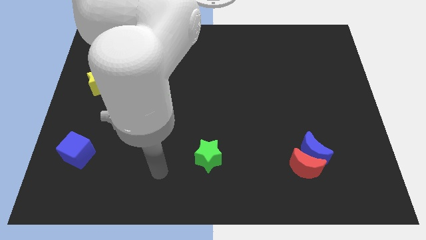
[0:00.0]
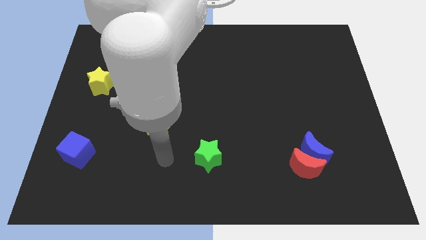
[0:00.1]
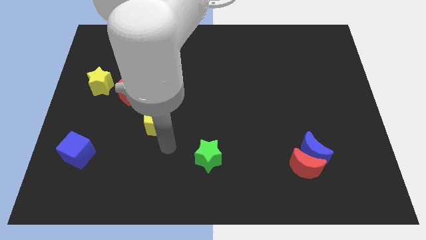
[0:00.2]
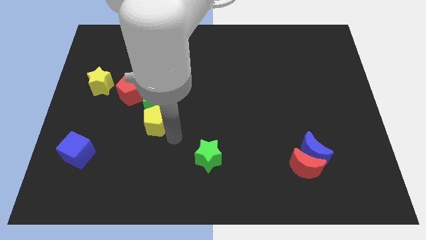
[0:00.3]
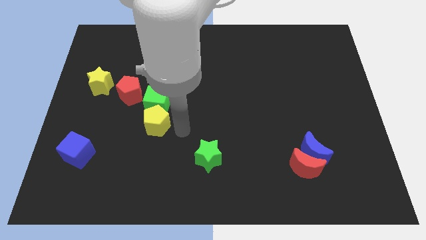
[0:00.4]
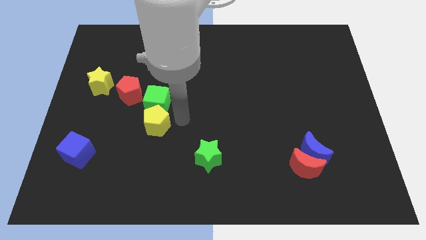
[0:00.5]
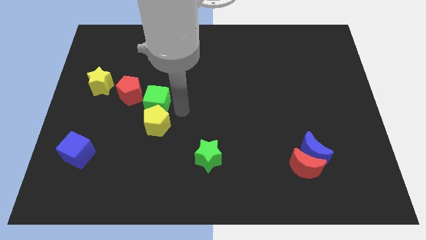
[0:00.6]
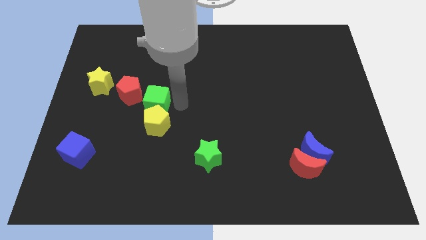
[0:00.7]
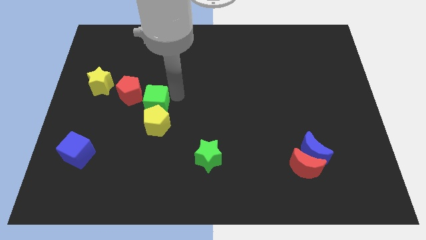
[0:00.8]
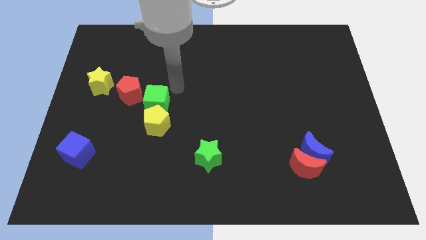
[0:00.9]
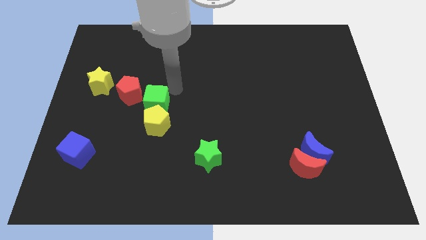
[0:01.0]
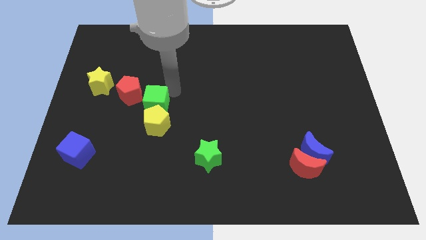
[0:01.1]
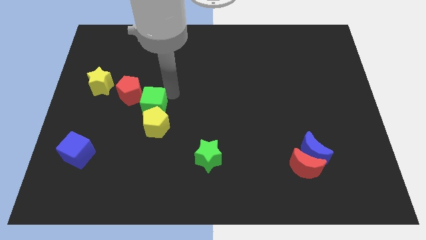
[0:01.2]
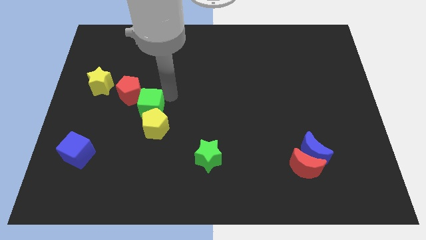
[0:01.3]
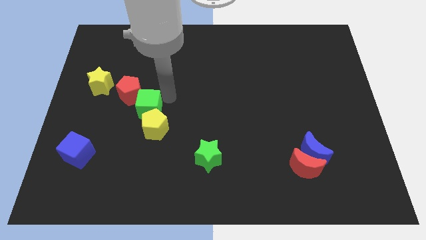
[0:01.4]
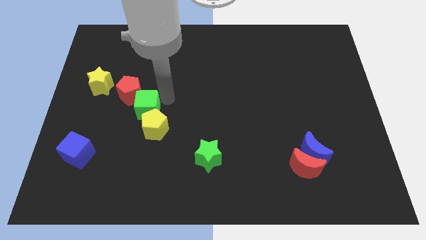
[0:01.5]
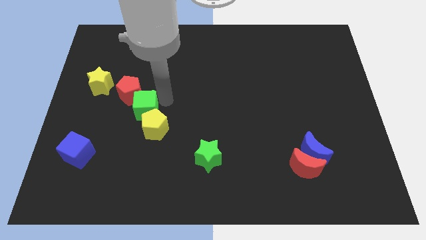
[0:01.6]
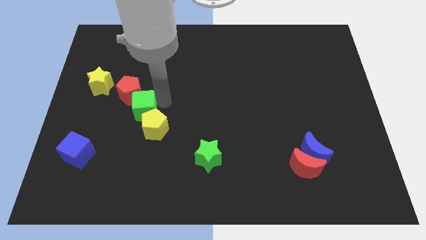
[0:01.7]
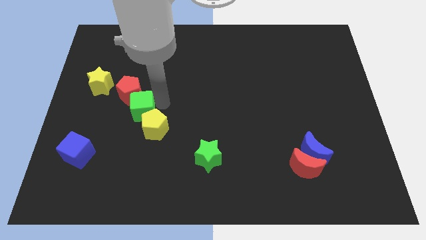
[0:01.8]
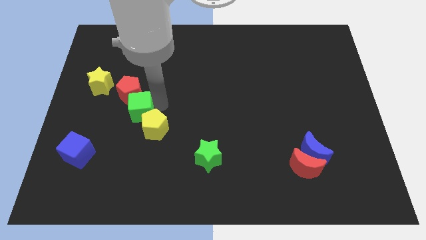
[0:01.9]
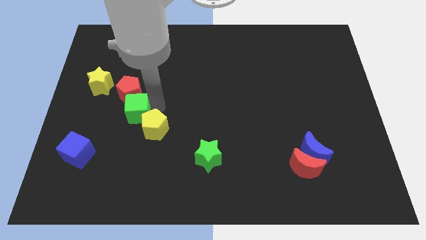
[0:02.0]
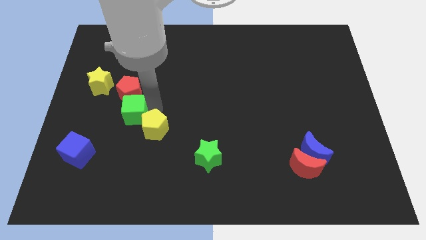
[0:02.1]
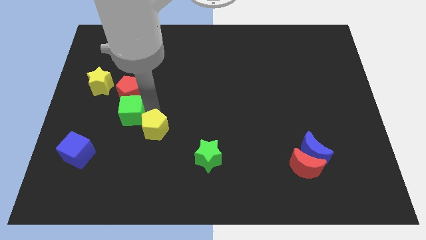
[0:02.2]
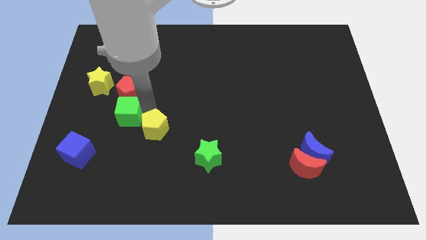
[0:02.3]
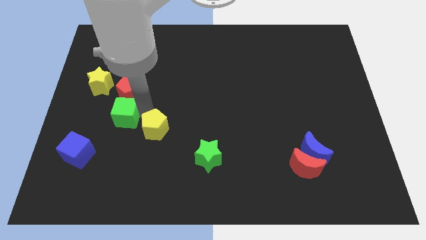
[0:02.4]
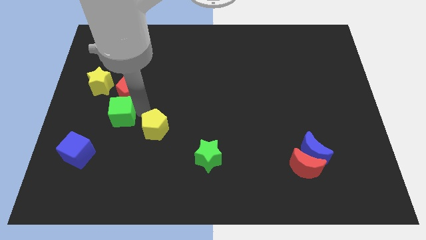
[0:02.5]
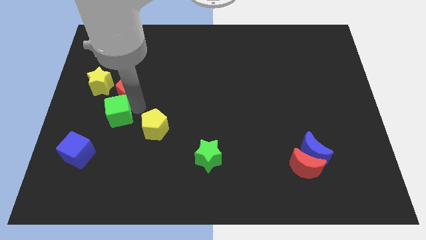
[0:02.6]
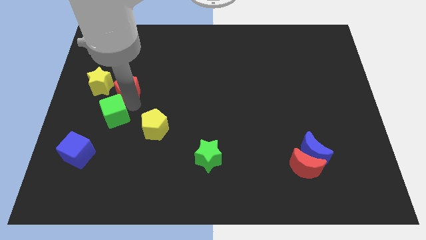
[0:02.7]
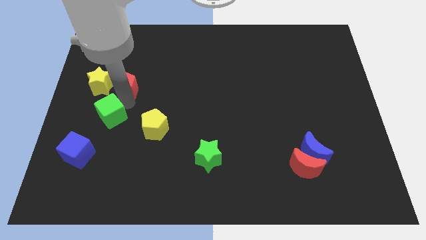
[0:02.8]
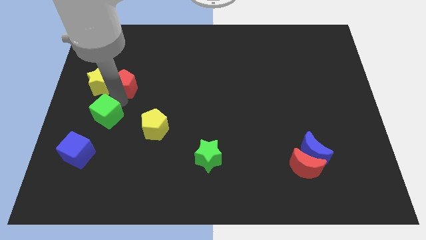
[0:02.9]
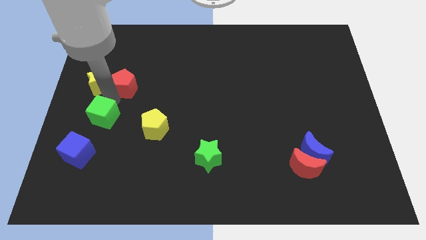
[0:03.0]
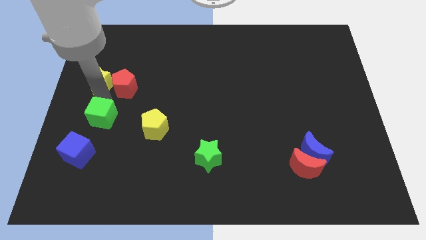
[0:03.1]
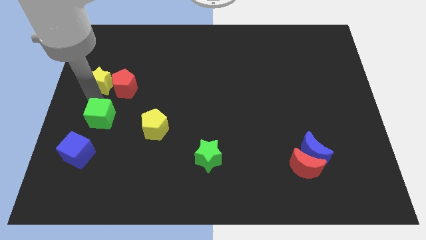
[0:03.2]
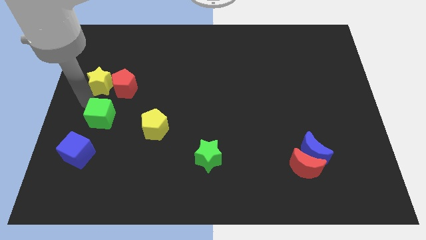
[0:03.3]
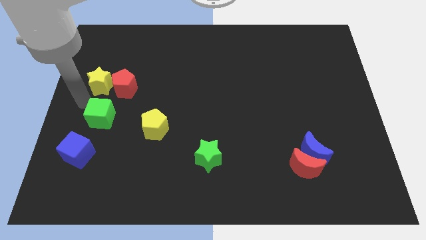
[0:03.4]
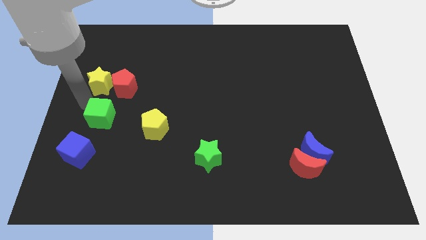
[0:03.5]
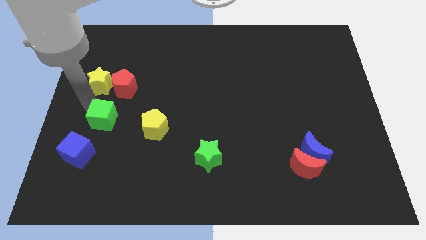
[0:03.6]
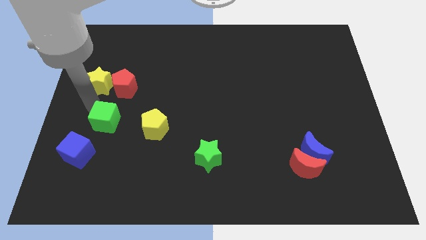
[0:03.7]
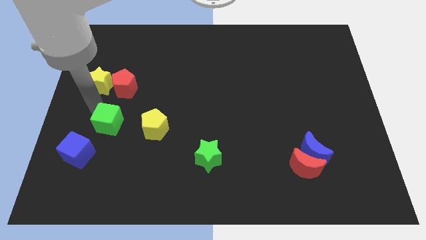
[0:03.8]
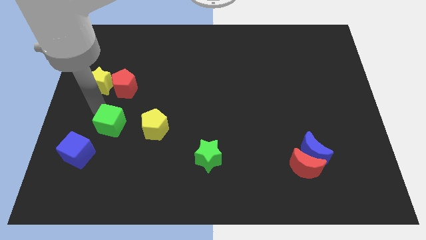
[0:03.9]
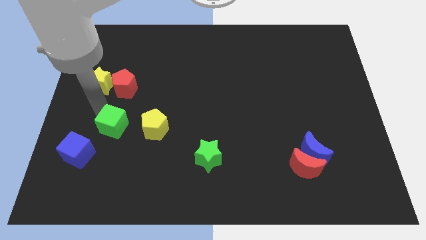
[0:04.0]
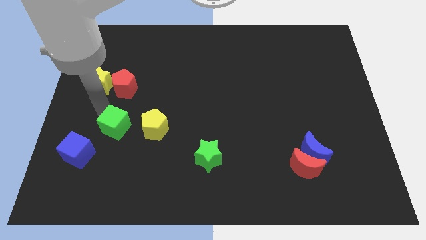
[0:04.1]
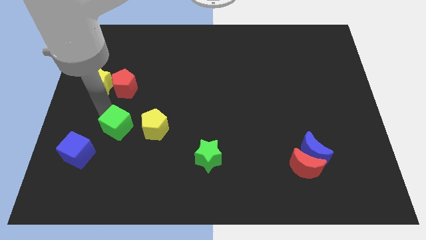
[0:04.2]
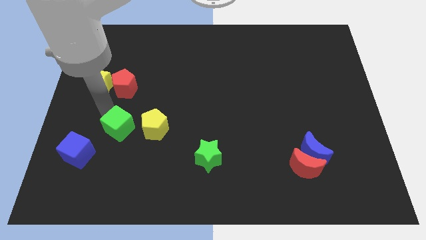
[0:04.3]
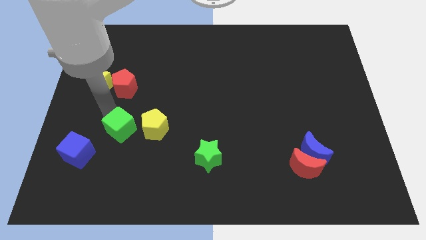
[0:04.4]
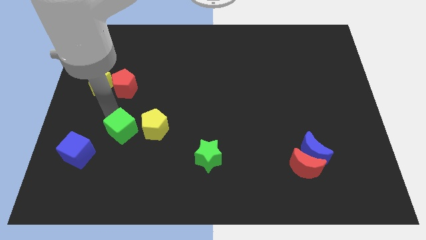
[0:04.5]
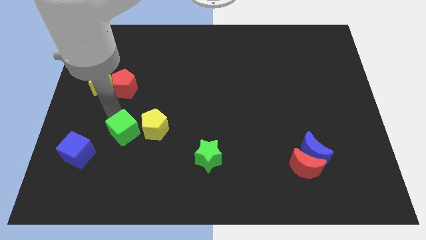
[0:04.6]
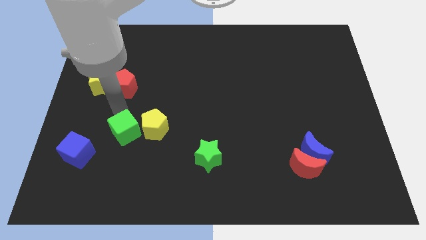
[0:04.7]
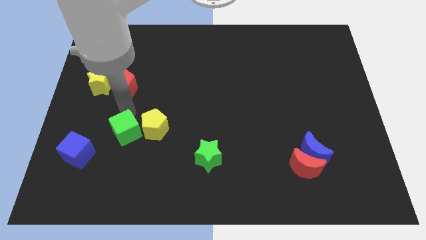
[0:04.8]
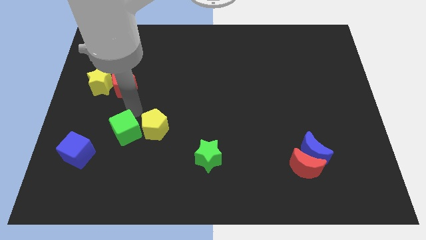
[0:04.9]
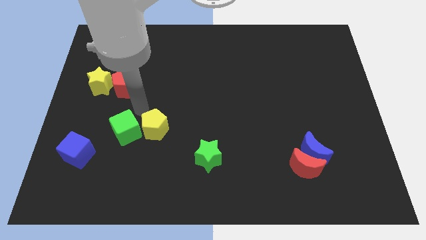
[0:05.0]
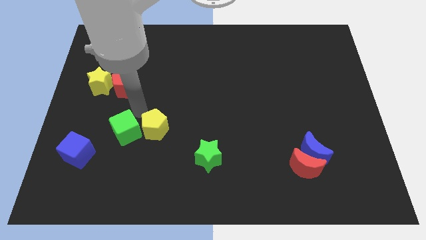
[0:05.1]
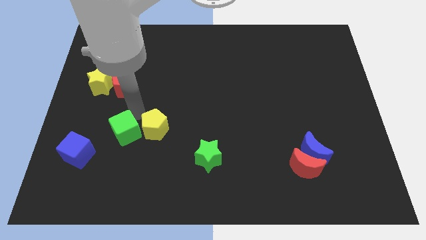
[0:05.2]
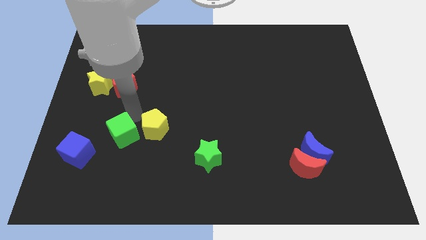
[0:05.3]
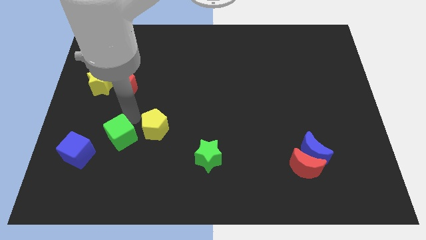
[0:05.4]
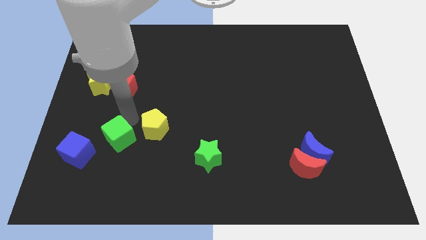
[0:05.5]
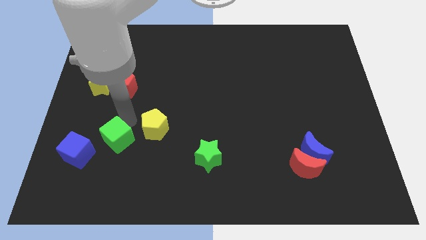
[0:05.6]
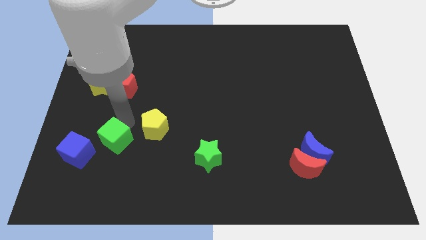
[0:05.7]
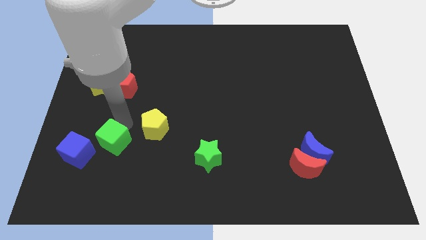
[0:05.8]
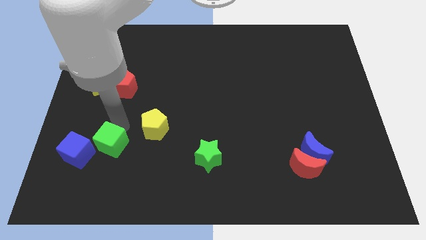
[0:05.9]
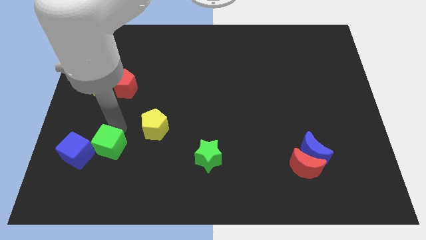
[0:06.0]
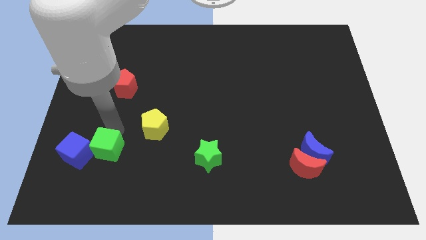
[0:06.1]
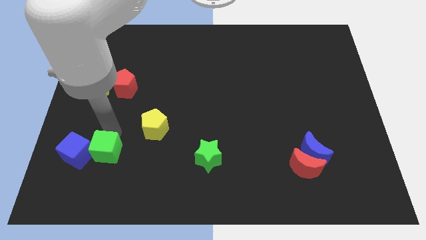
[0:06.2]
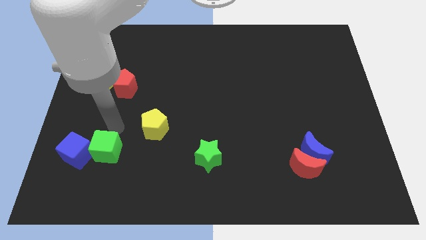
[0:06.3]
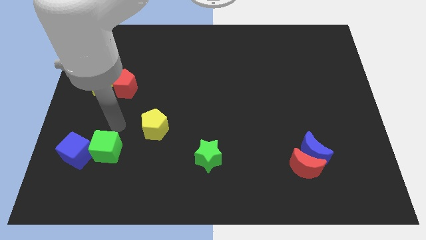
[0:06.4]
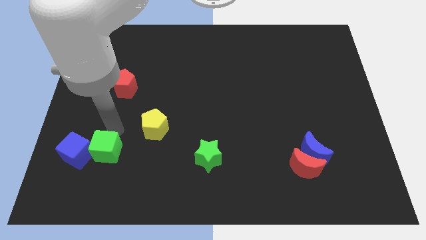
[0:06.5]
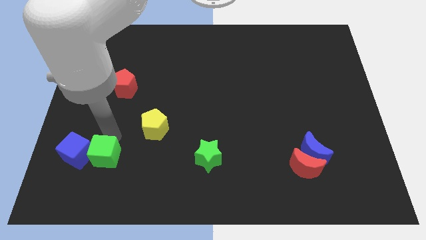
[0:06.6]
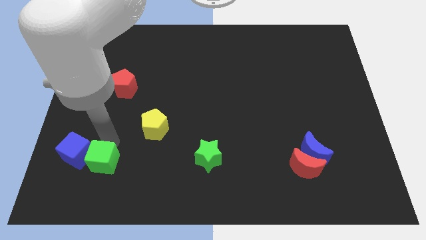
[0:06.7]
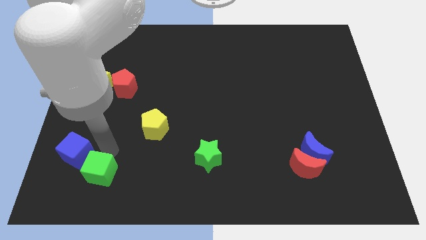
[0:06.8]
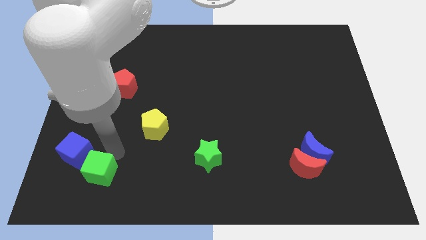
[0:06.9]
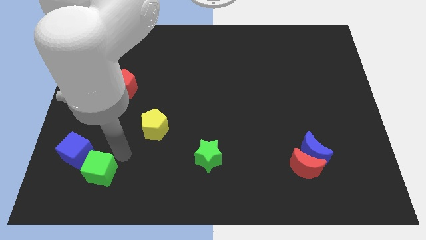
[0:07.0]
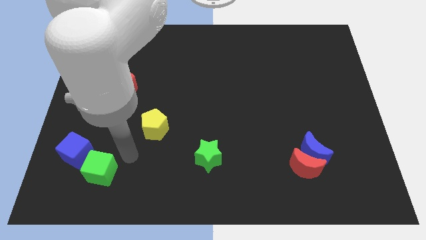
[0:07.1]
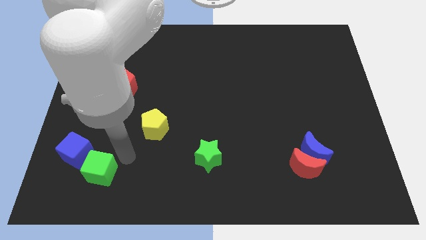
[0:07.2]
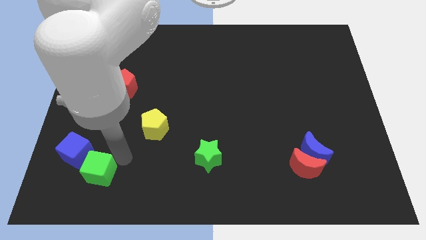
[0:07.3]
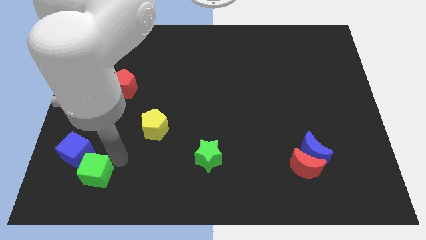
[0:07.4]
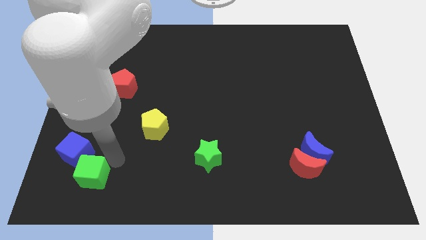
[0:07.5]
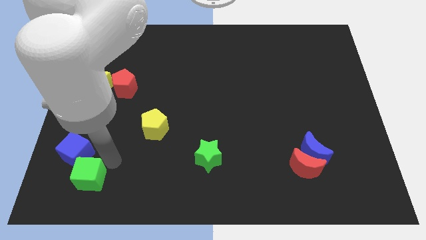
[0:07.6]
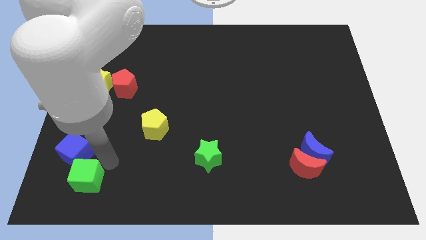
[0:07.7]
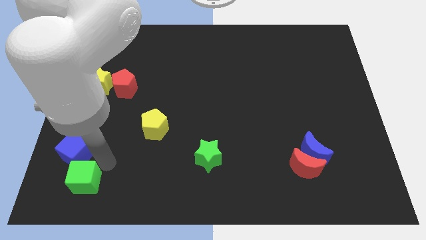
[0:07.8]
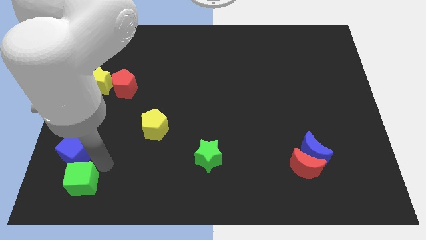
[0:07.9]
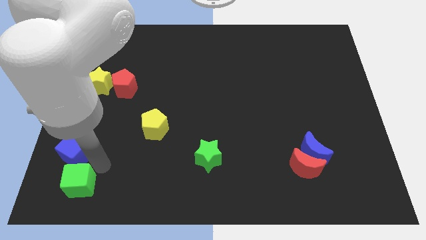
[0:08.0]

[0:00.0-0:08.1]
slide the green cube to the bottom left corner
